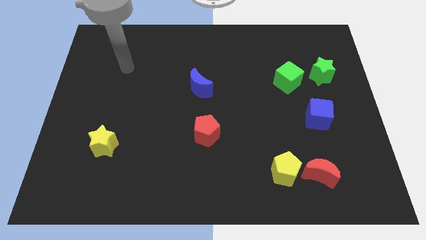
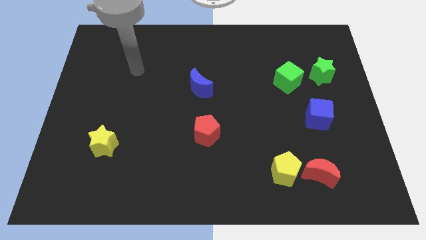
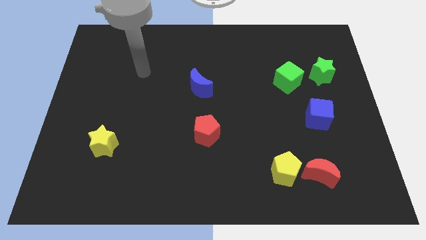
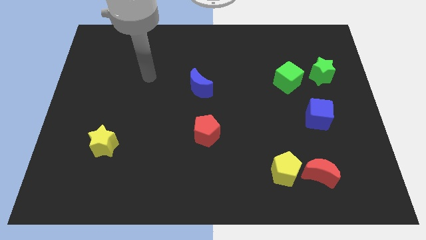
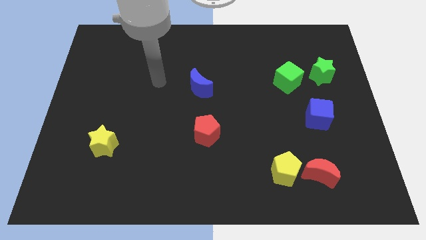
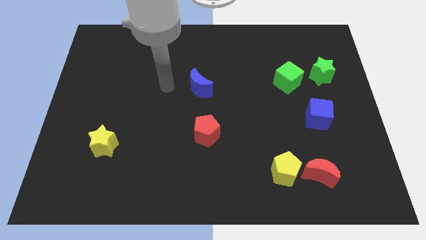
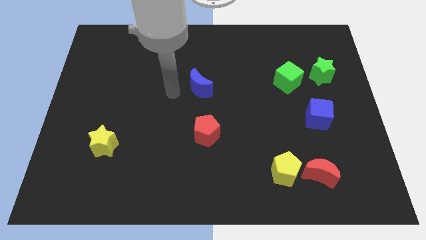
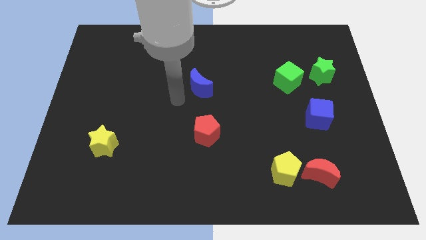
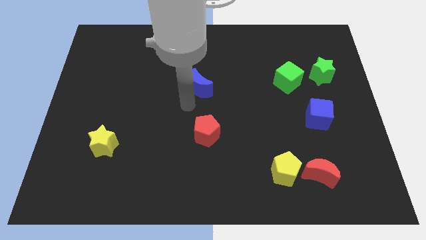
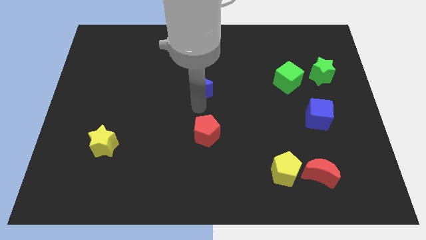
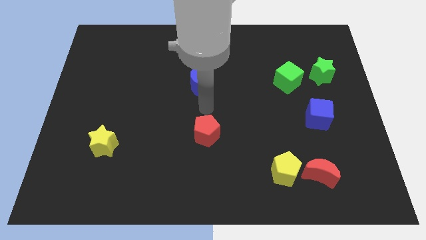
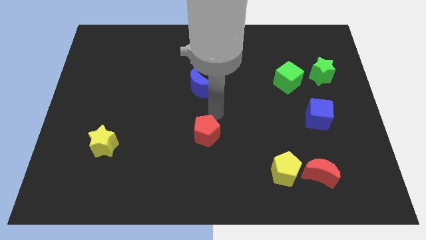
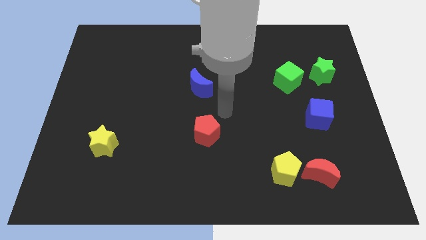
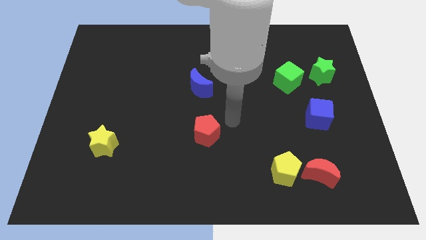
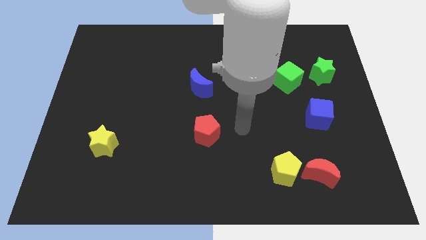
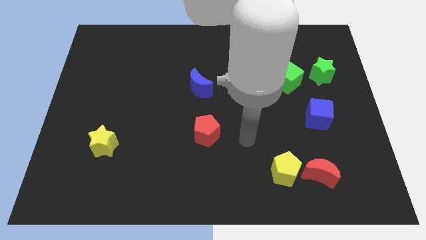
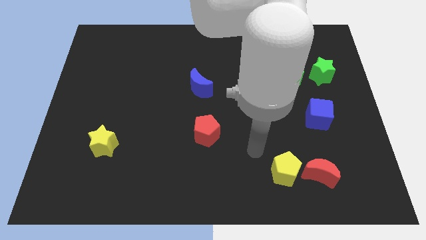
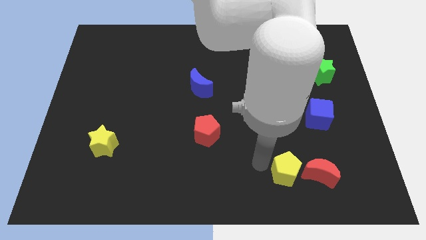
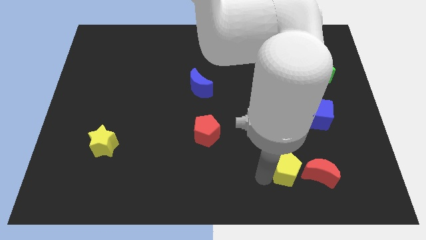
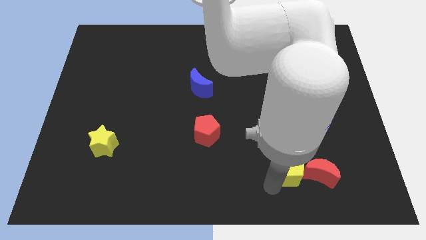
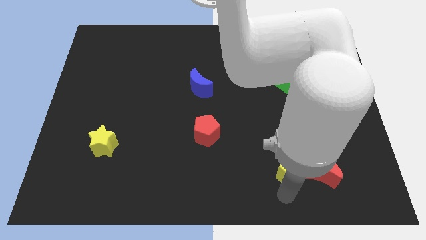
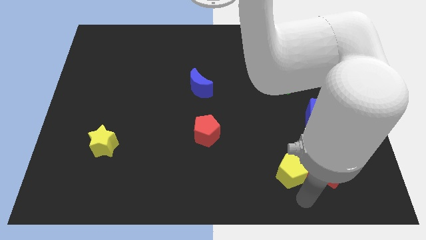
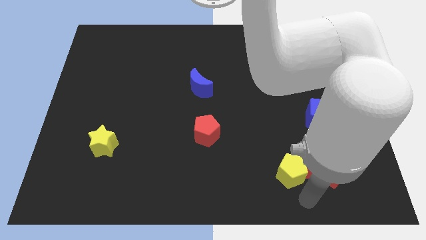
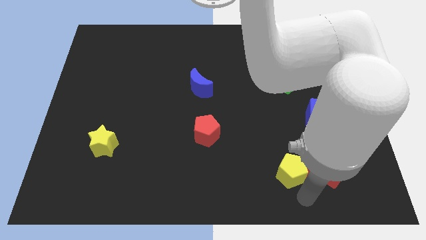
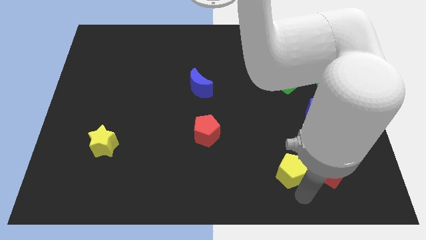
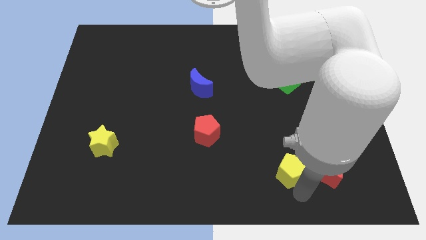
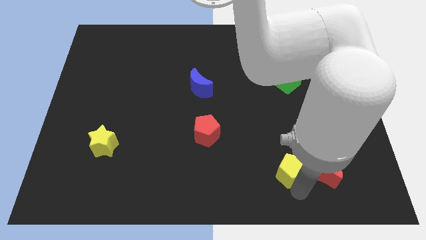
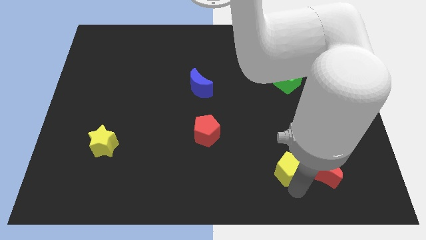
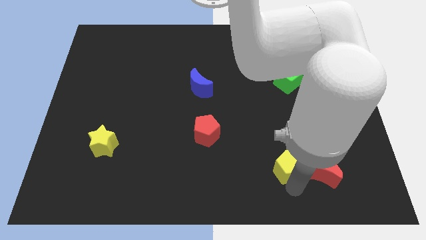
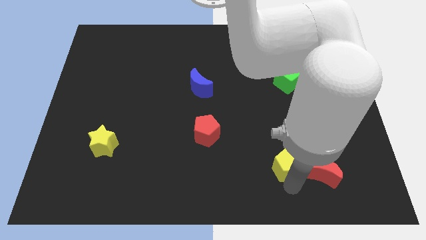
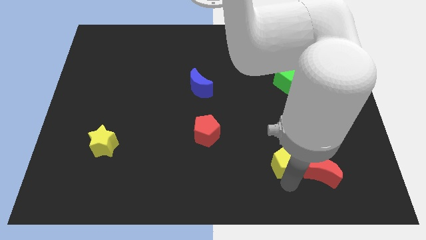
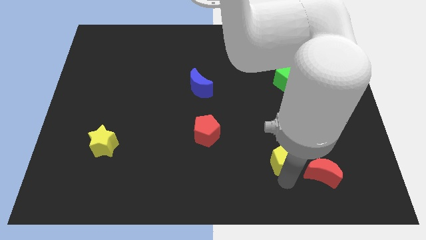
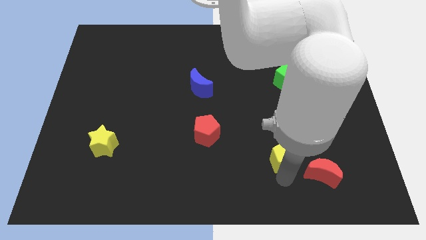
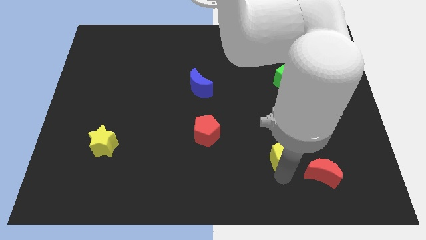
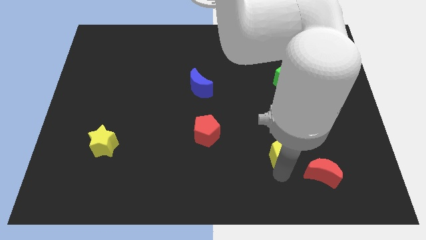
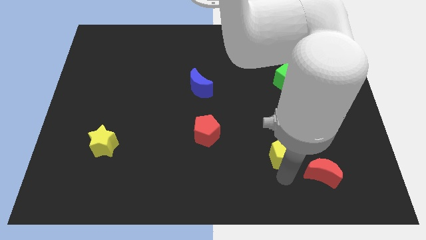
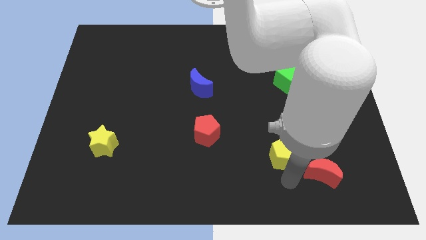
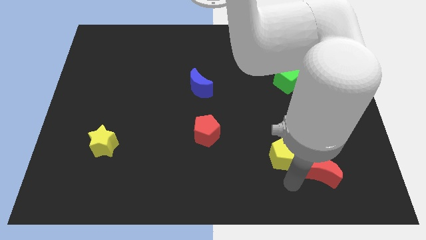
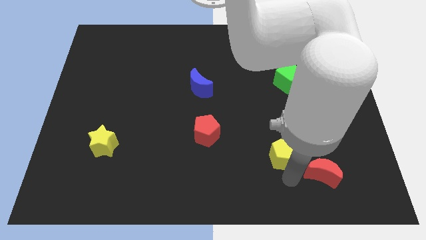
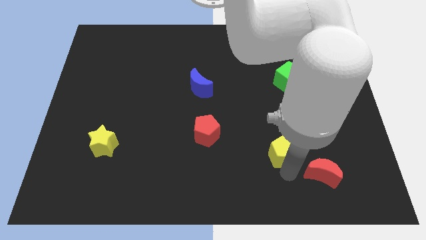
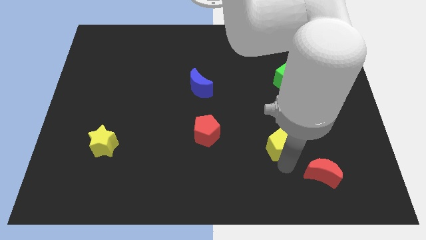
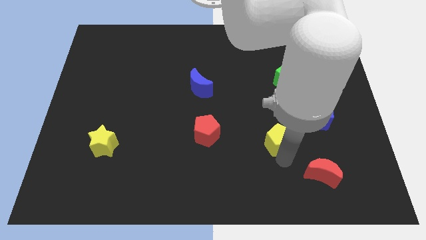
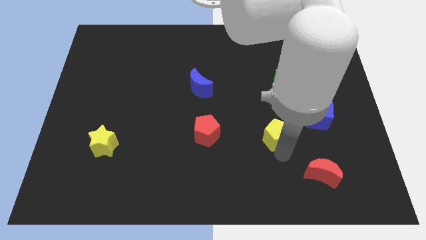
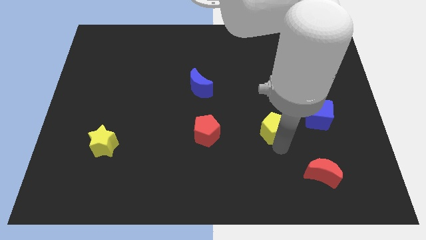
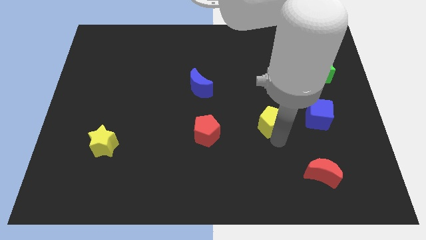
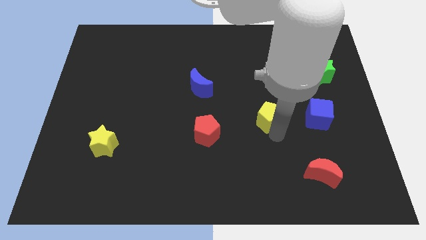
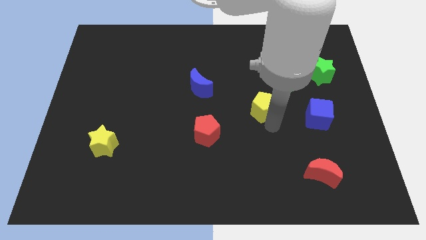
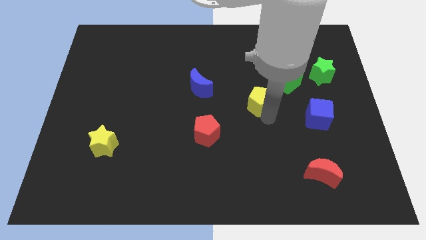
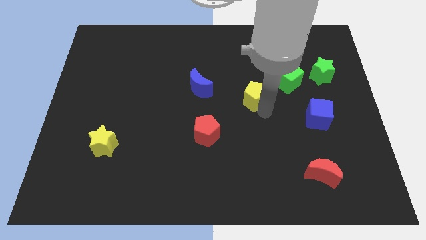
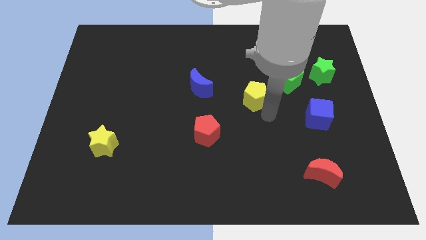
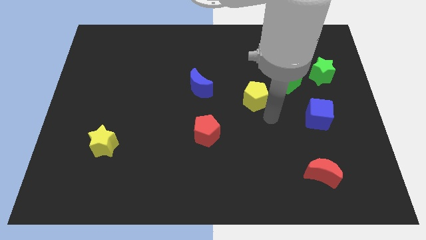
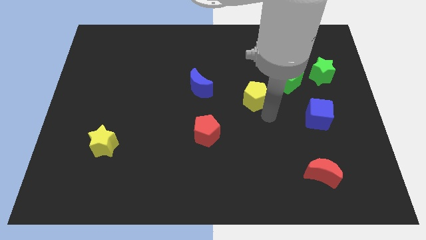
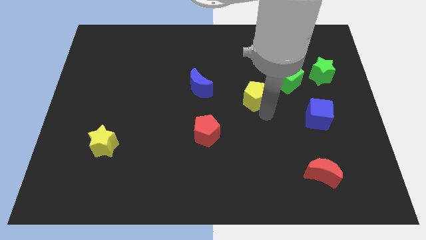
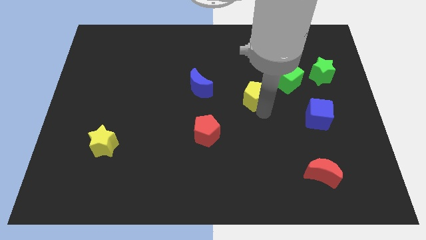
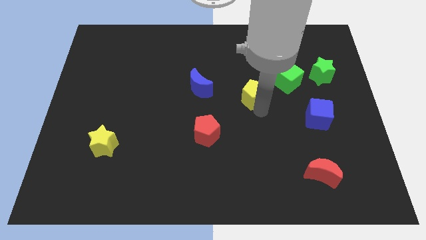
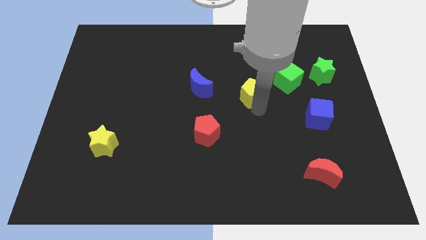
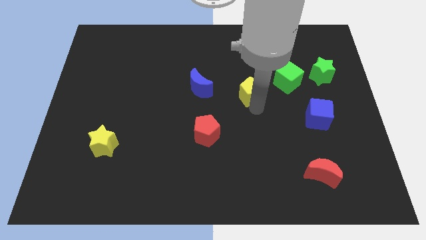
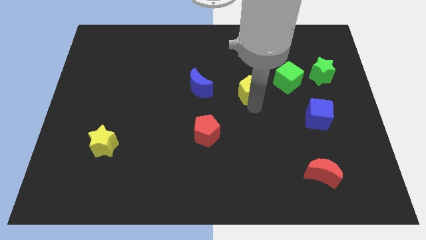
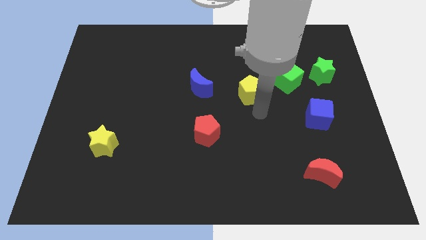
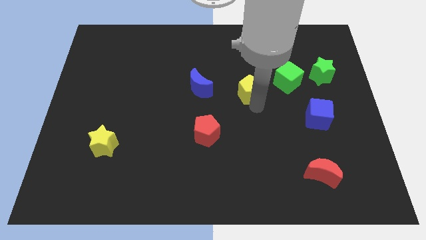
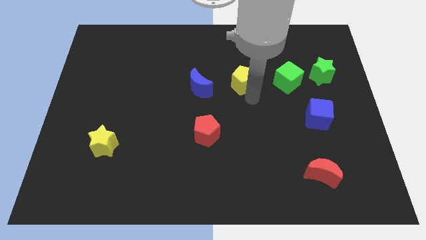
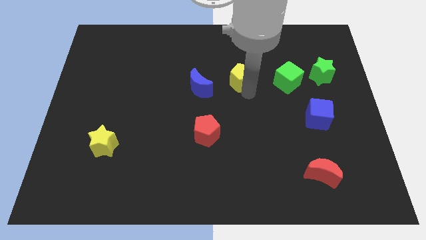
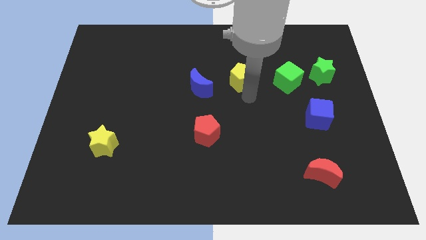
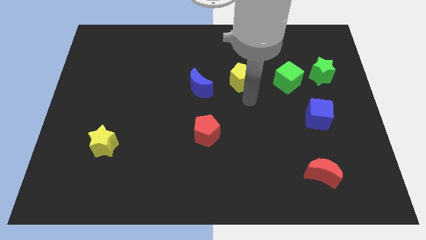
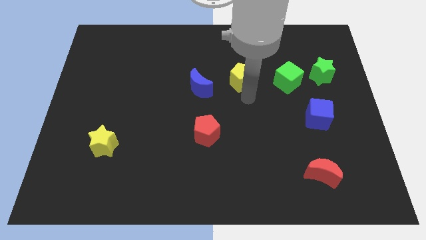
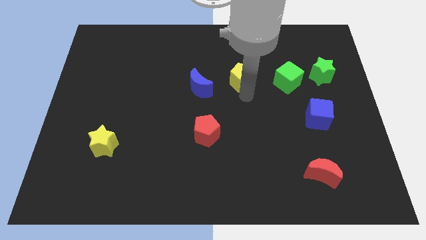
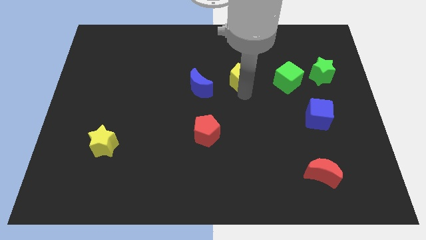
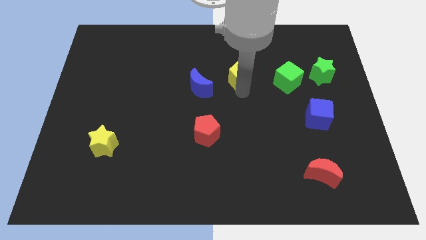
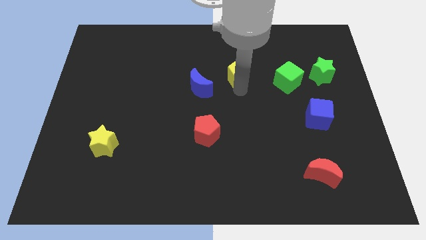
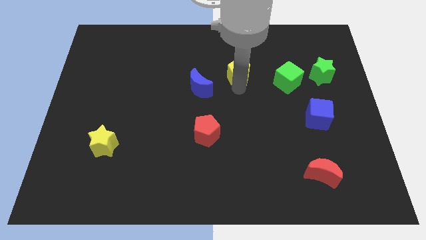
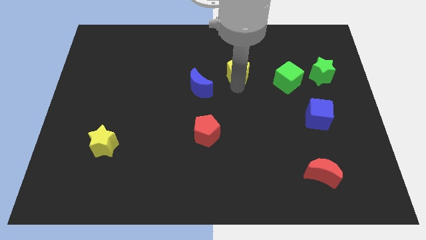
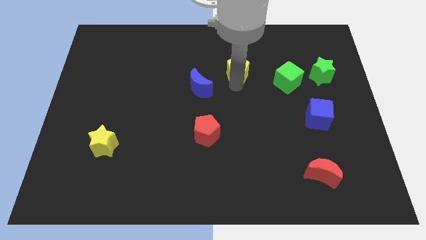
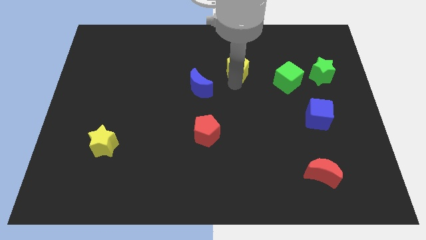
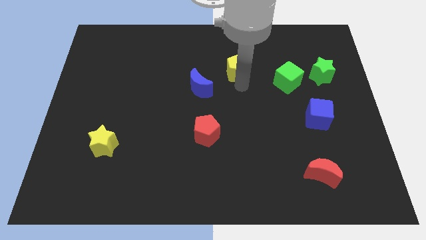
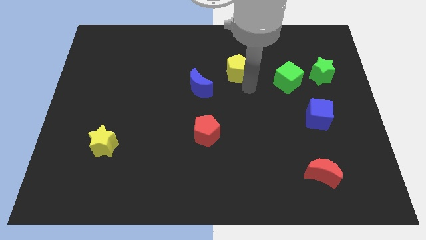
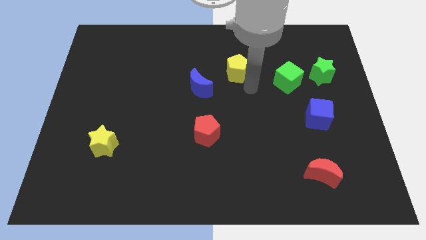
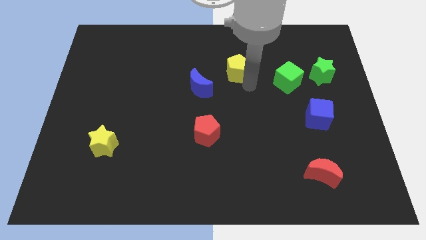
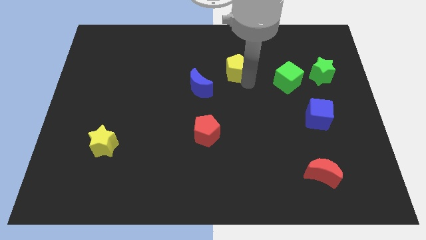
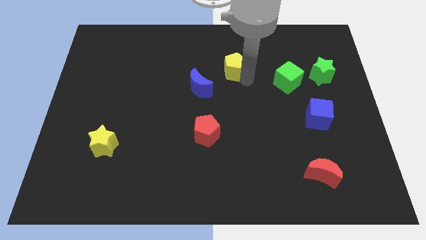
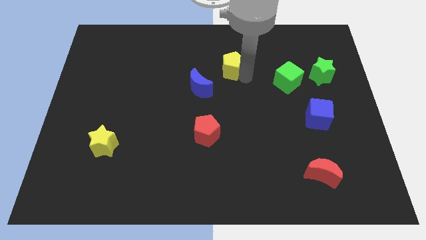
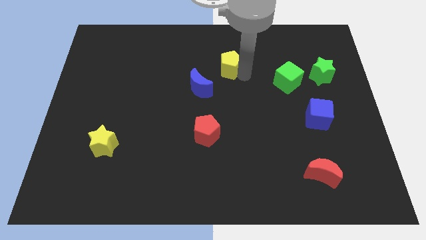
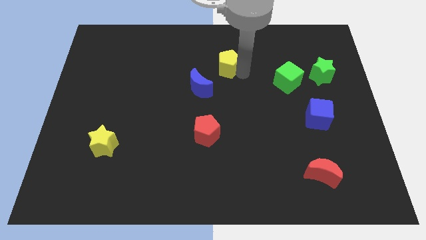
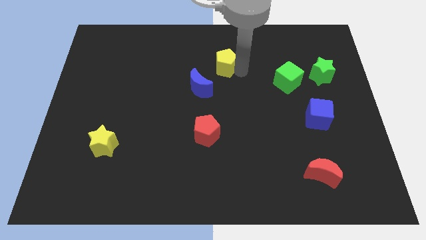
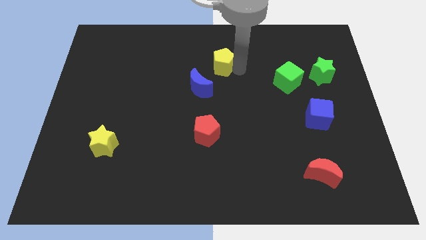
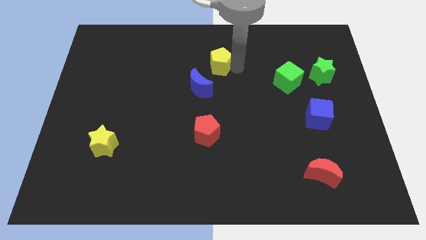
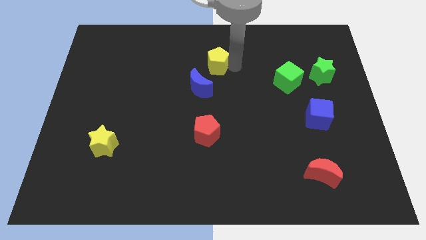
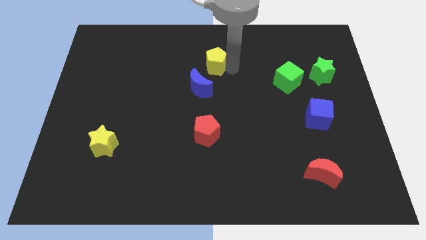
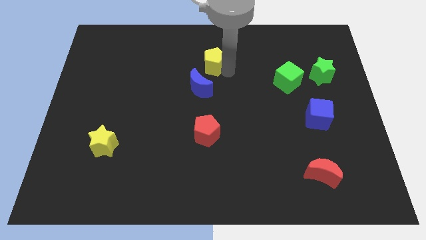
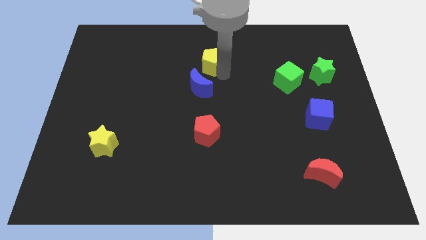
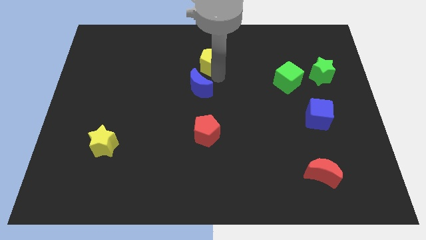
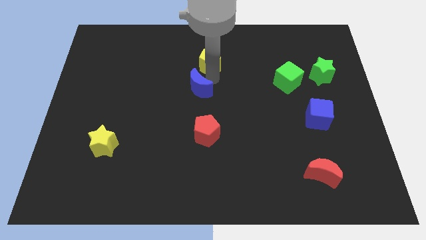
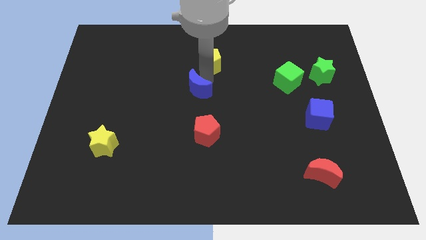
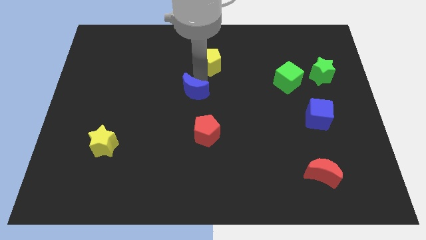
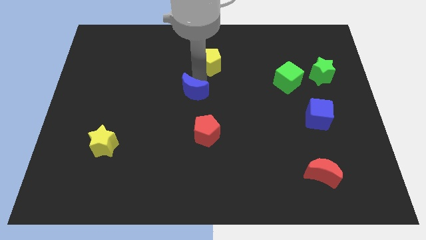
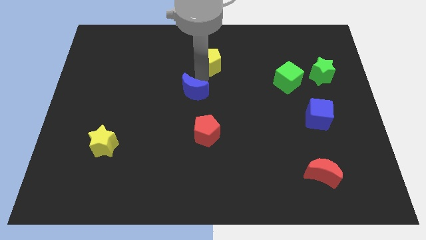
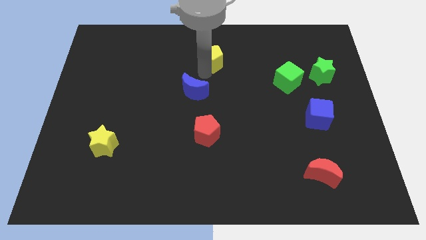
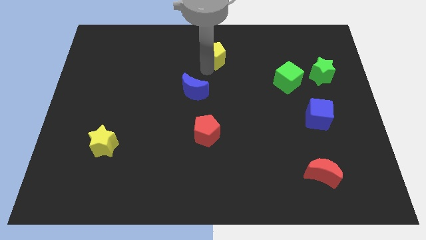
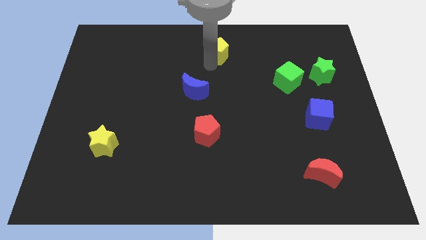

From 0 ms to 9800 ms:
move the yellow pentagon to the top
